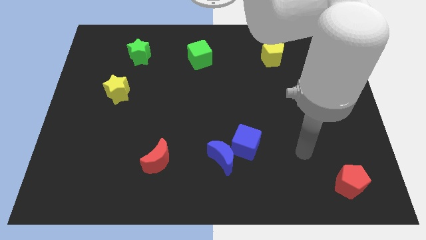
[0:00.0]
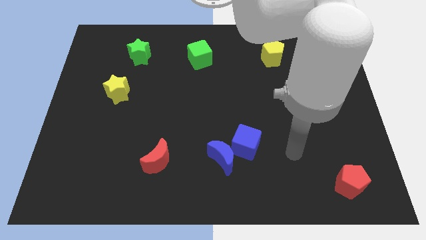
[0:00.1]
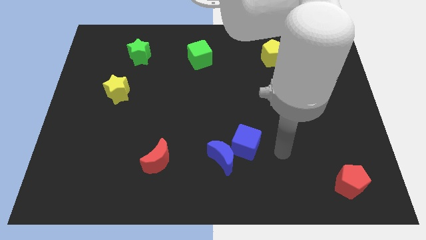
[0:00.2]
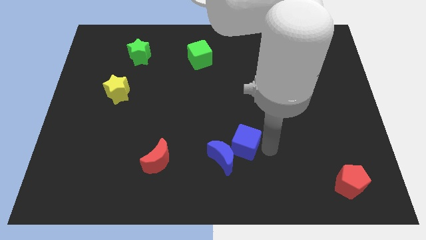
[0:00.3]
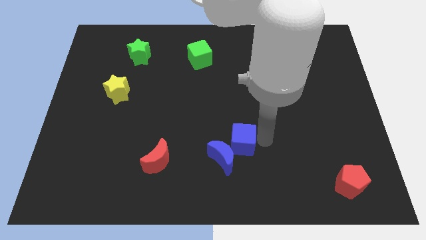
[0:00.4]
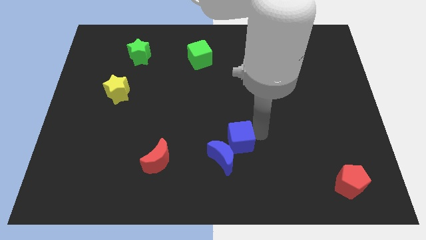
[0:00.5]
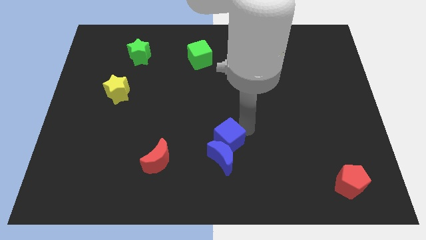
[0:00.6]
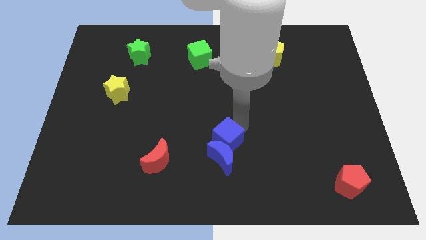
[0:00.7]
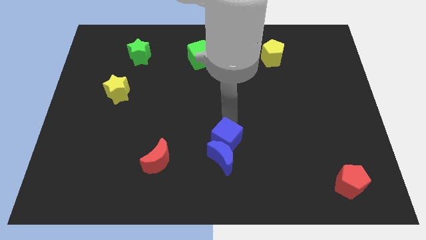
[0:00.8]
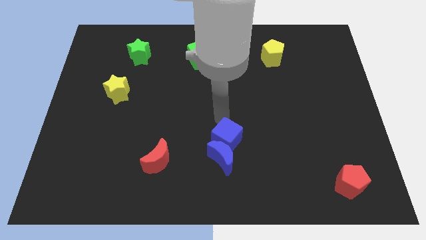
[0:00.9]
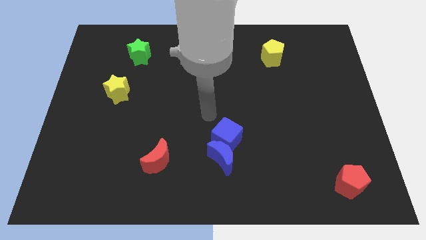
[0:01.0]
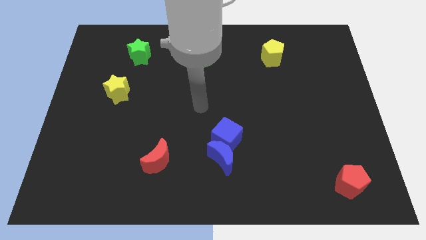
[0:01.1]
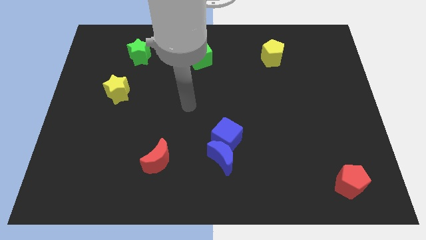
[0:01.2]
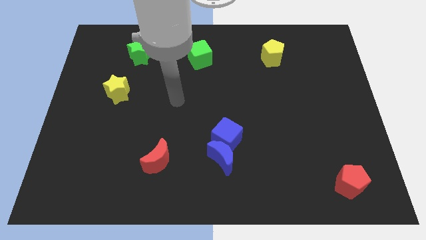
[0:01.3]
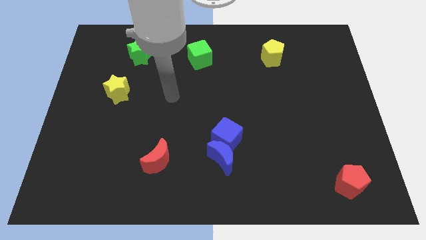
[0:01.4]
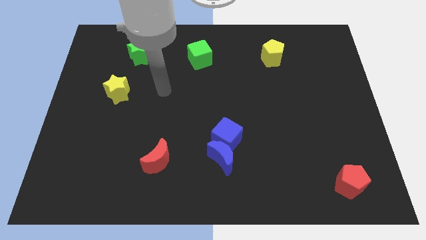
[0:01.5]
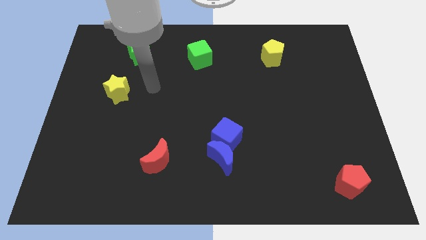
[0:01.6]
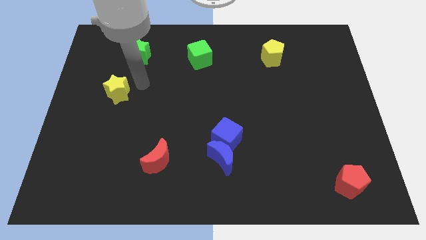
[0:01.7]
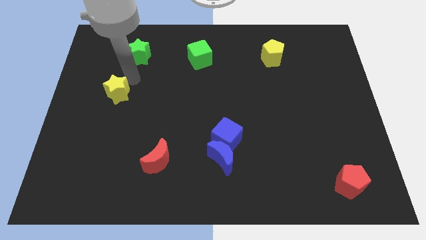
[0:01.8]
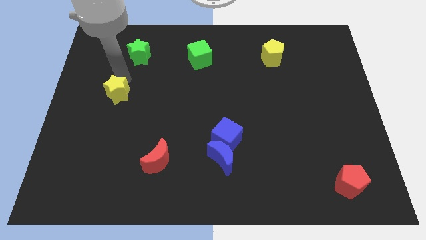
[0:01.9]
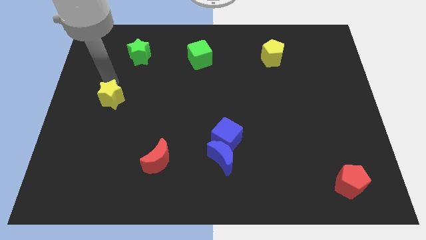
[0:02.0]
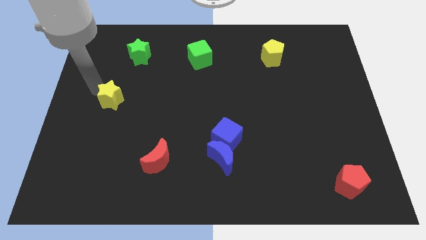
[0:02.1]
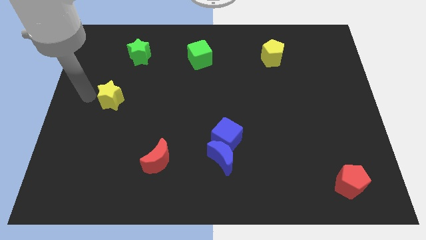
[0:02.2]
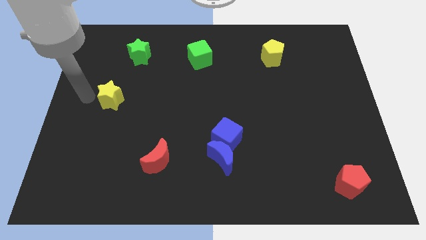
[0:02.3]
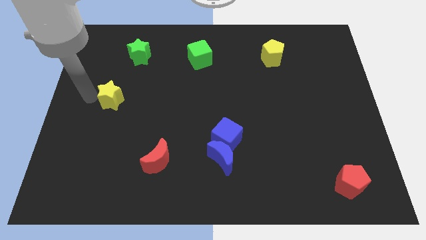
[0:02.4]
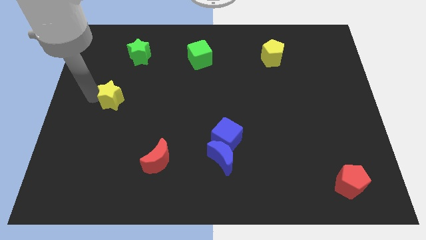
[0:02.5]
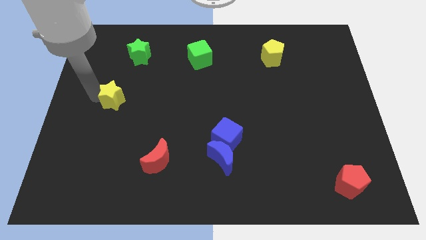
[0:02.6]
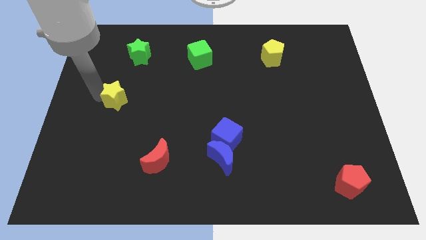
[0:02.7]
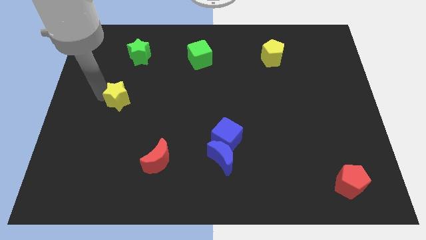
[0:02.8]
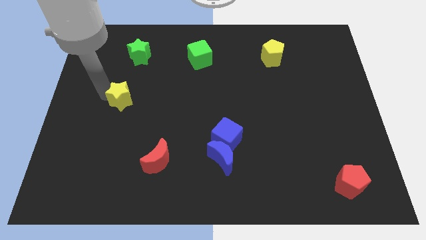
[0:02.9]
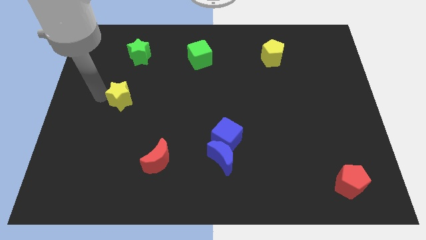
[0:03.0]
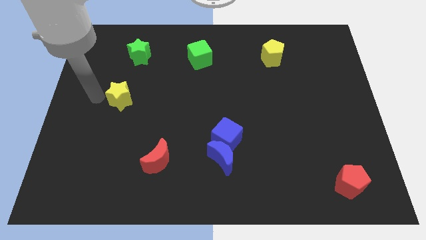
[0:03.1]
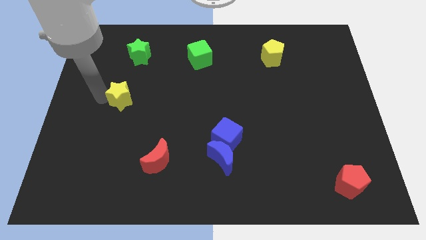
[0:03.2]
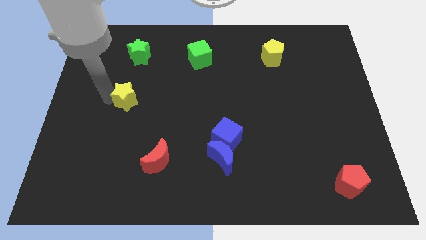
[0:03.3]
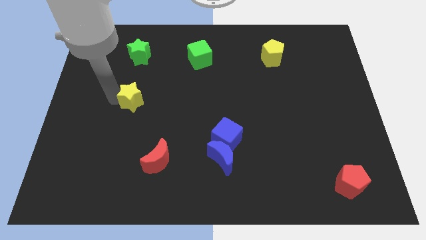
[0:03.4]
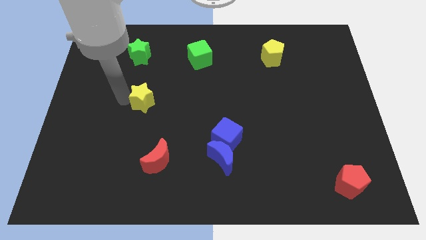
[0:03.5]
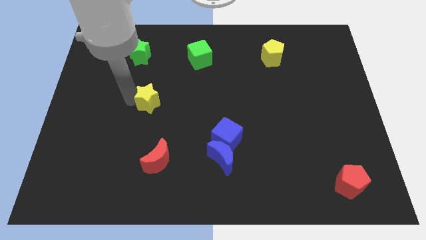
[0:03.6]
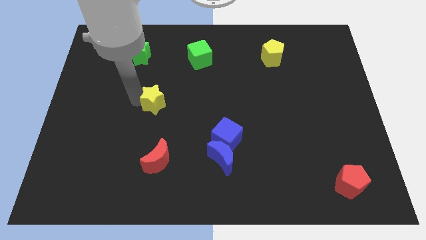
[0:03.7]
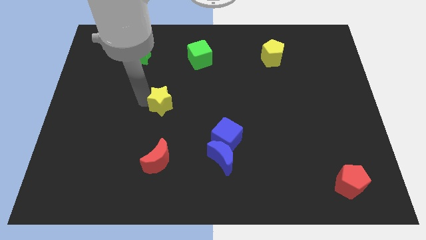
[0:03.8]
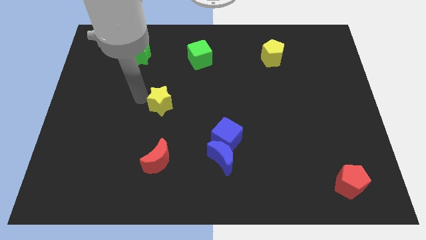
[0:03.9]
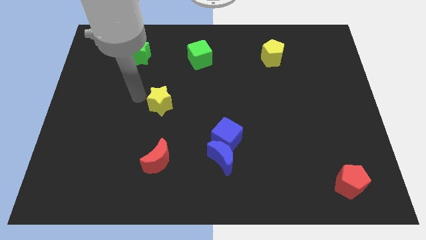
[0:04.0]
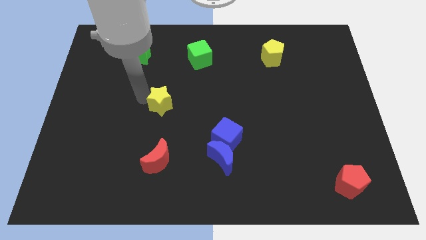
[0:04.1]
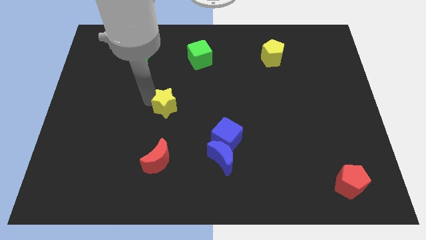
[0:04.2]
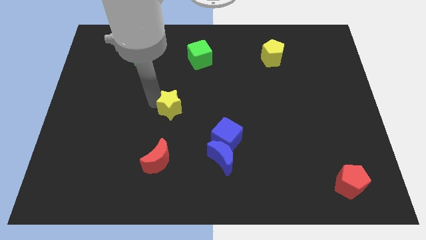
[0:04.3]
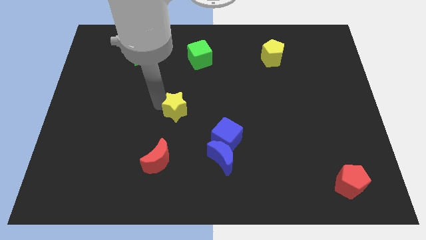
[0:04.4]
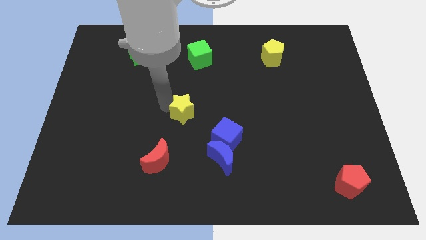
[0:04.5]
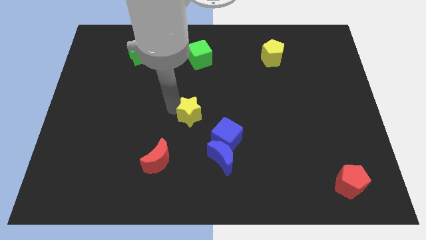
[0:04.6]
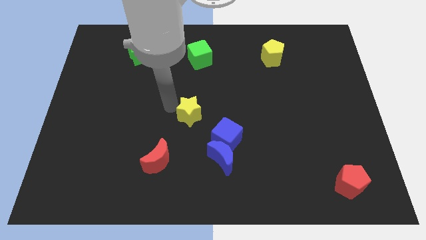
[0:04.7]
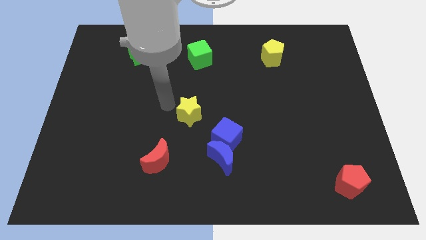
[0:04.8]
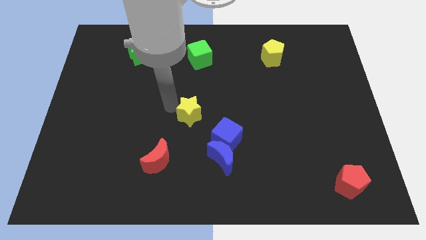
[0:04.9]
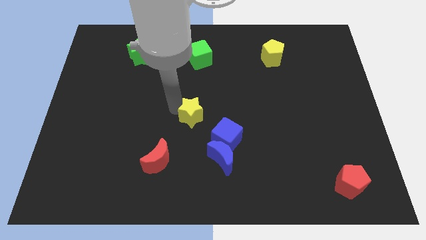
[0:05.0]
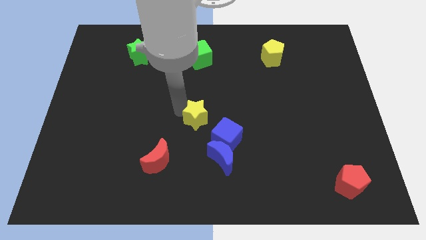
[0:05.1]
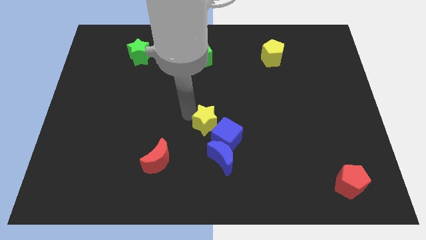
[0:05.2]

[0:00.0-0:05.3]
put the yellow star to the blue cube

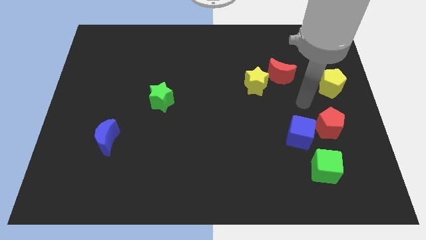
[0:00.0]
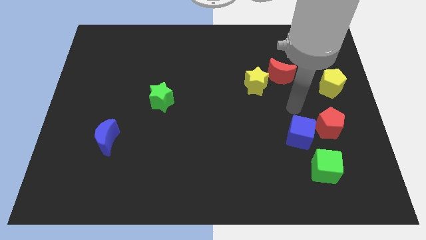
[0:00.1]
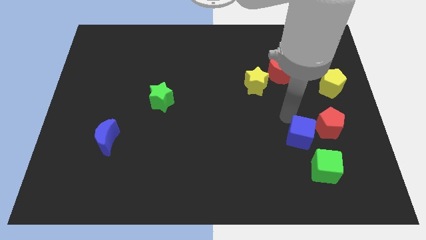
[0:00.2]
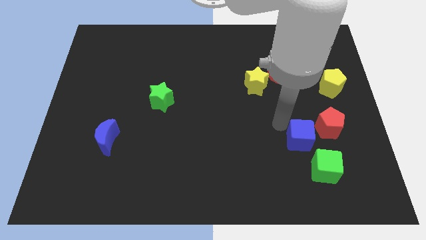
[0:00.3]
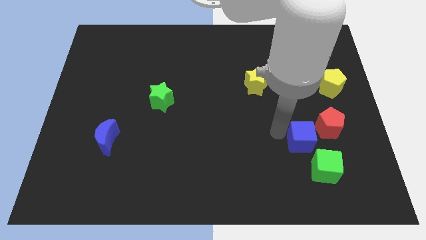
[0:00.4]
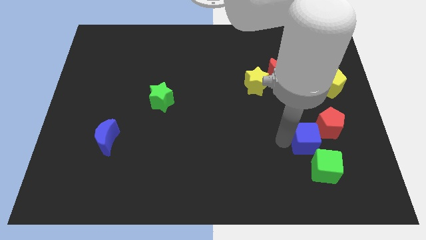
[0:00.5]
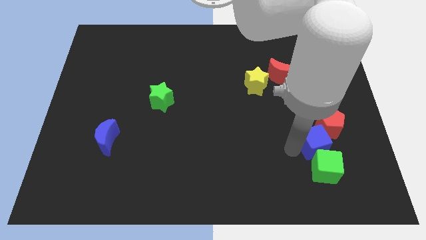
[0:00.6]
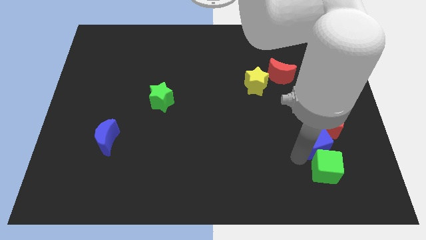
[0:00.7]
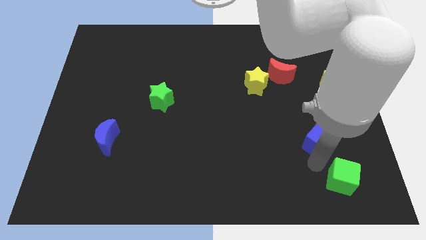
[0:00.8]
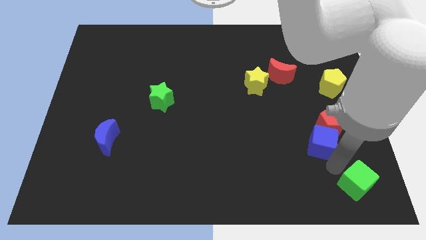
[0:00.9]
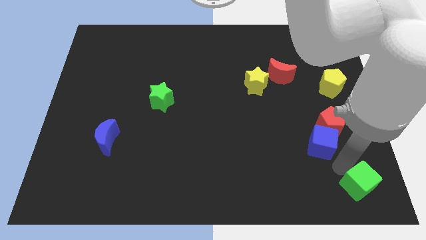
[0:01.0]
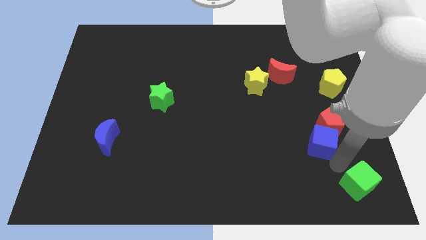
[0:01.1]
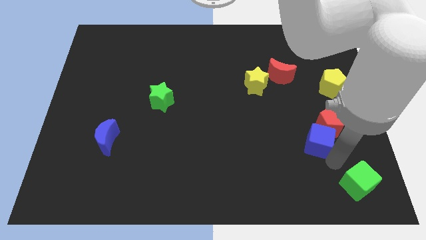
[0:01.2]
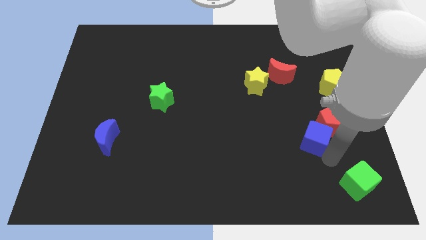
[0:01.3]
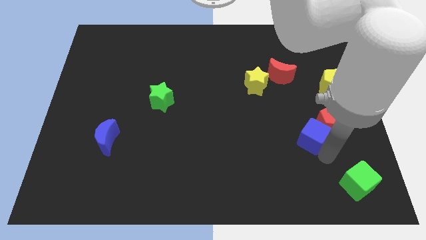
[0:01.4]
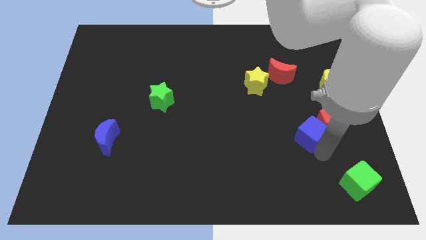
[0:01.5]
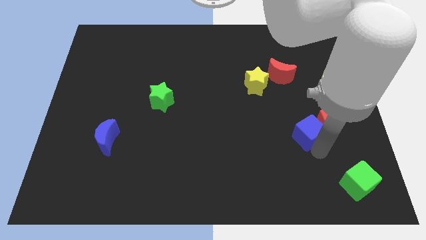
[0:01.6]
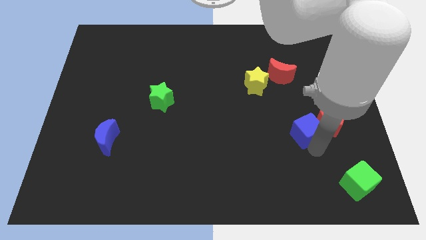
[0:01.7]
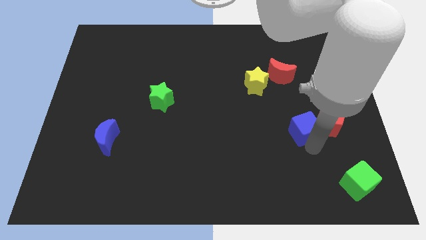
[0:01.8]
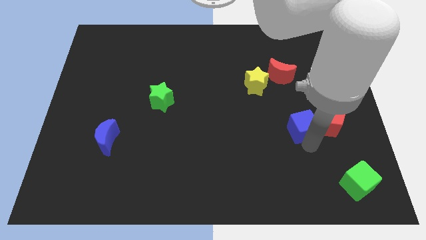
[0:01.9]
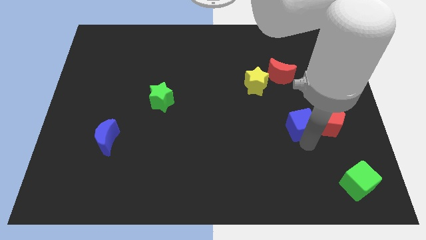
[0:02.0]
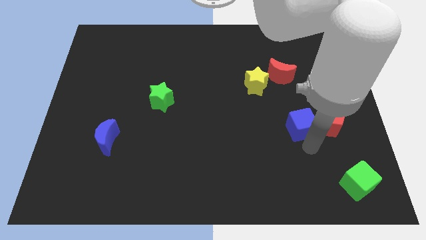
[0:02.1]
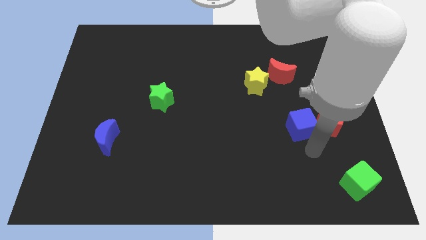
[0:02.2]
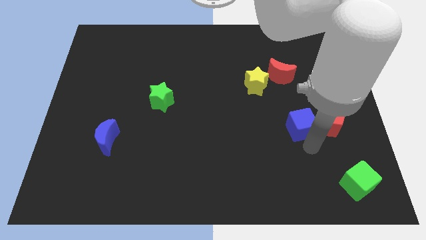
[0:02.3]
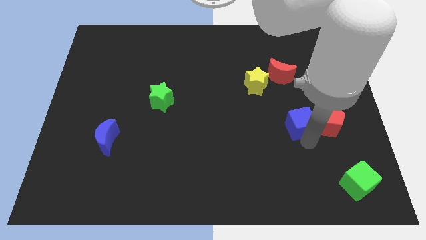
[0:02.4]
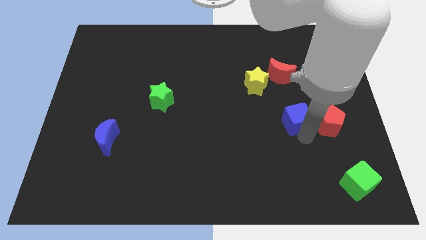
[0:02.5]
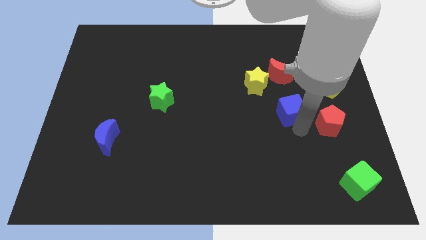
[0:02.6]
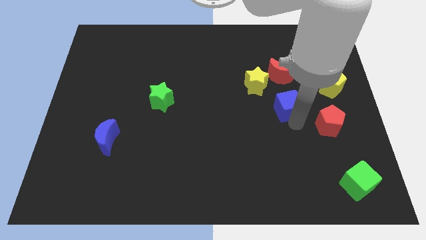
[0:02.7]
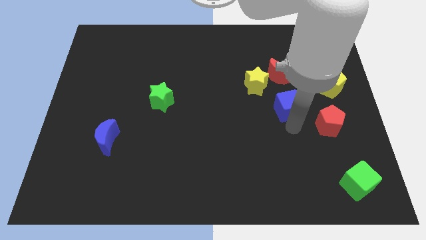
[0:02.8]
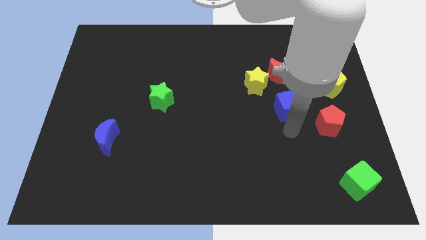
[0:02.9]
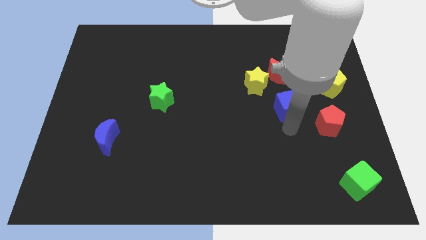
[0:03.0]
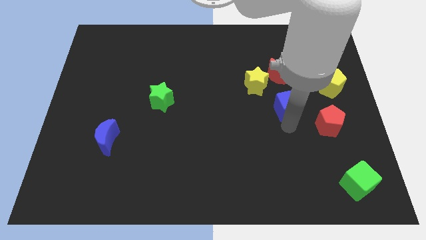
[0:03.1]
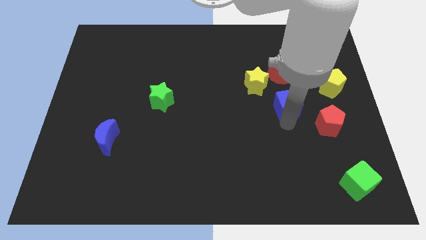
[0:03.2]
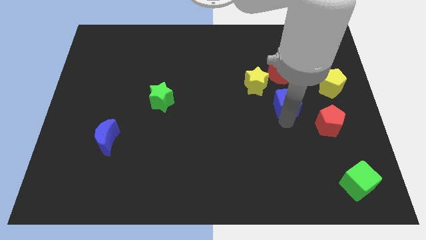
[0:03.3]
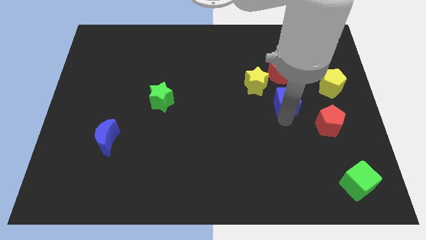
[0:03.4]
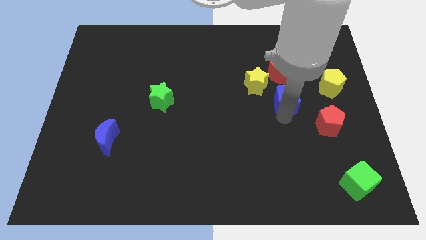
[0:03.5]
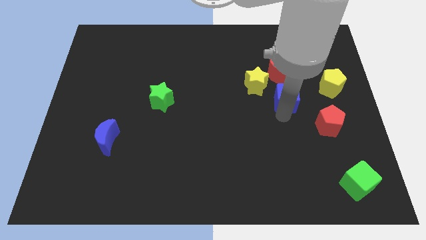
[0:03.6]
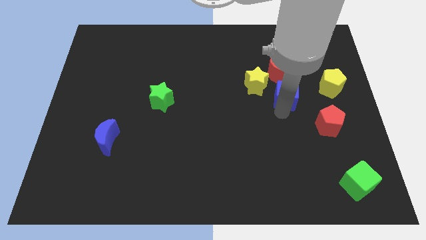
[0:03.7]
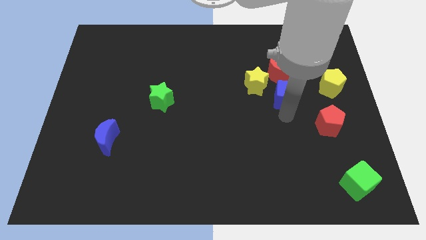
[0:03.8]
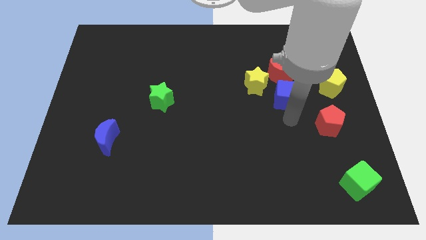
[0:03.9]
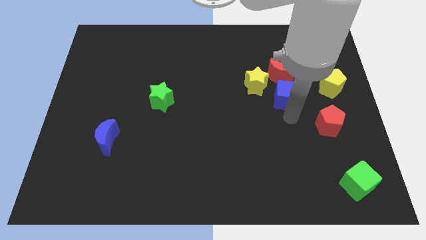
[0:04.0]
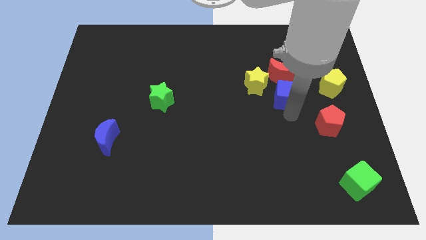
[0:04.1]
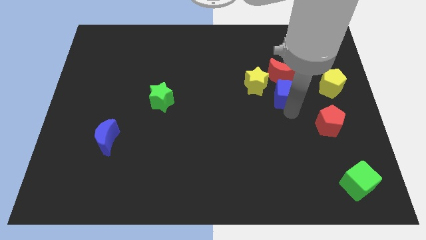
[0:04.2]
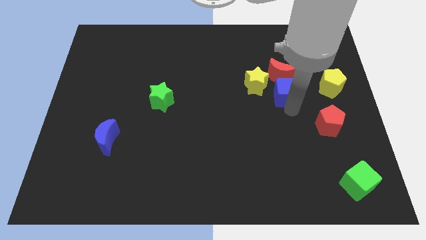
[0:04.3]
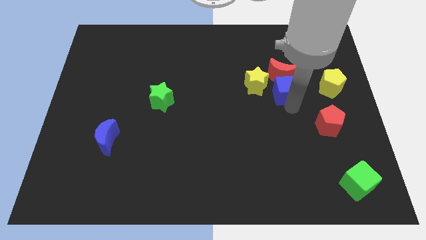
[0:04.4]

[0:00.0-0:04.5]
move the blue cube towards the red moon
